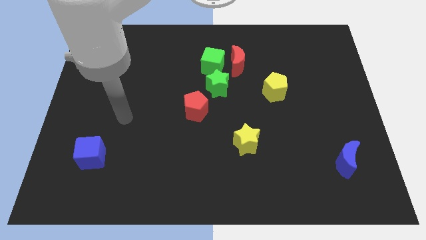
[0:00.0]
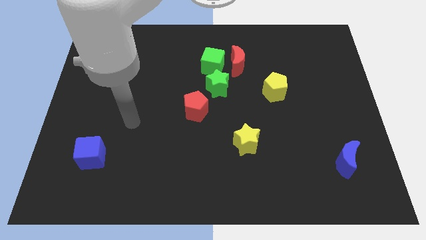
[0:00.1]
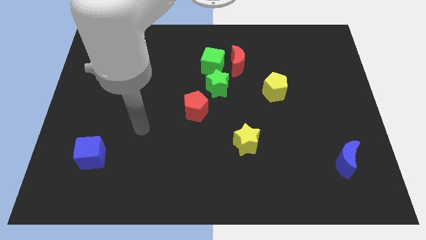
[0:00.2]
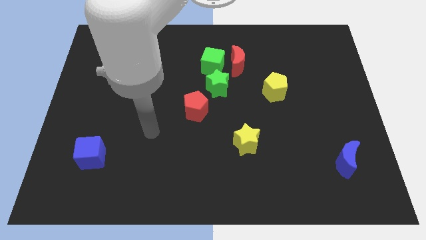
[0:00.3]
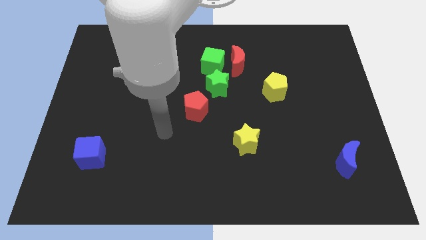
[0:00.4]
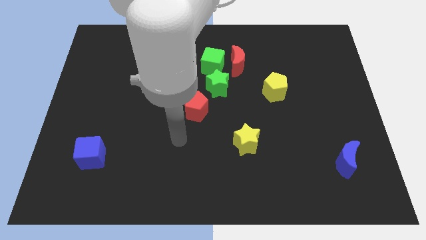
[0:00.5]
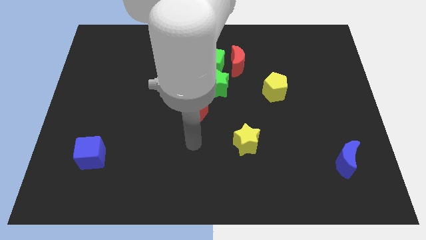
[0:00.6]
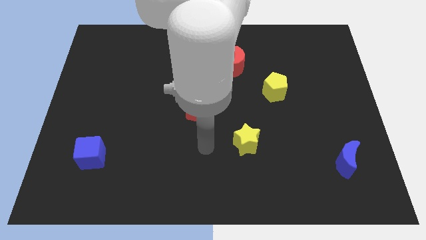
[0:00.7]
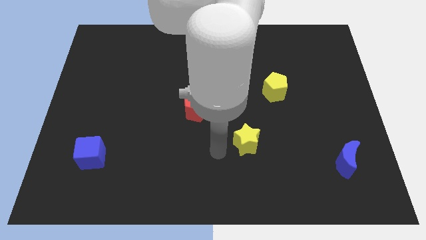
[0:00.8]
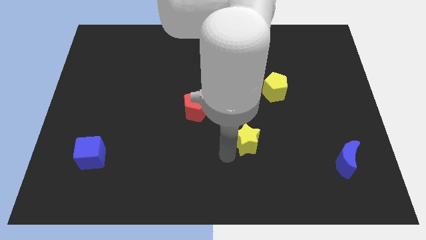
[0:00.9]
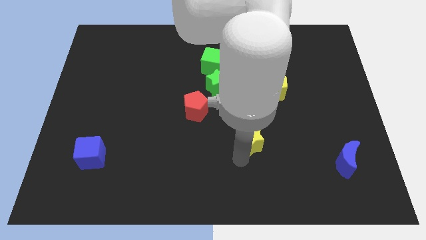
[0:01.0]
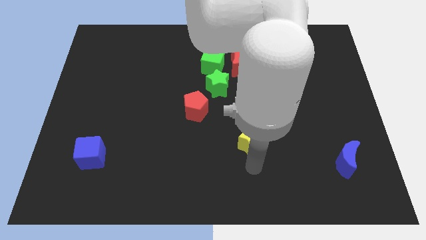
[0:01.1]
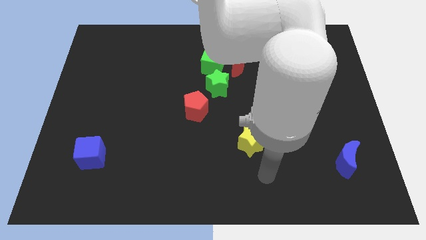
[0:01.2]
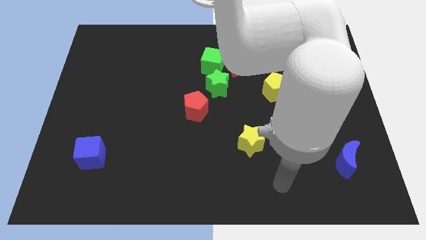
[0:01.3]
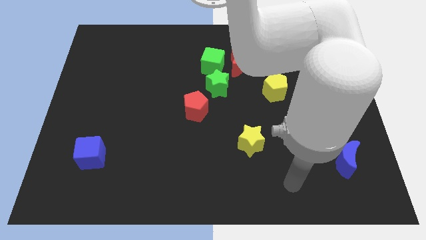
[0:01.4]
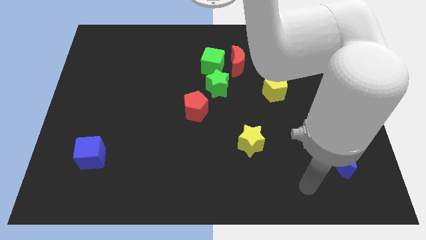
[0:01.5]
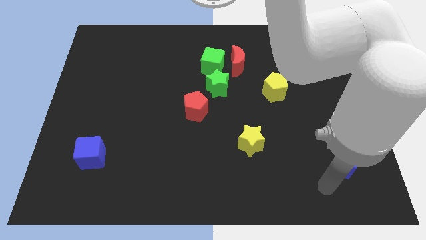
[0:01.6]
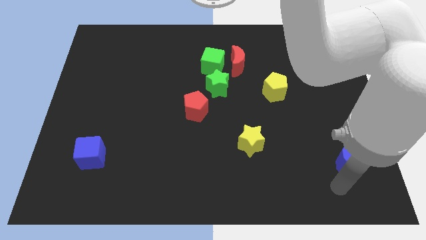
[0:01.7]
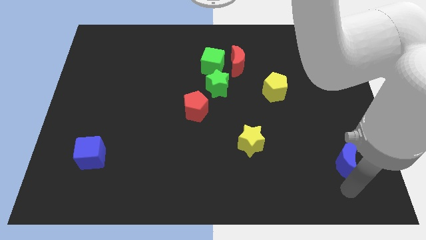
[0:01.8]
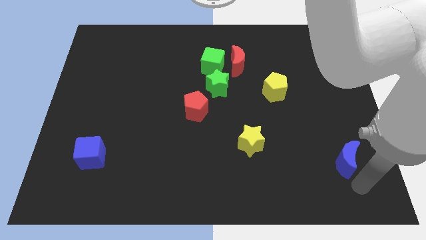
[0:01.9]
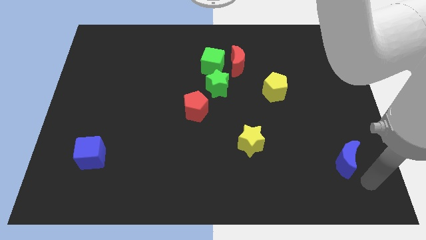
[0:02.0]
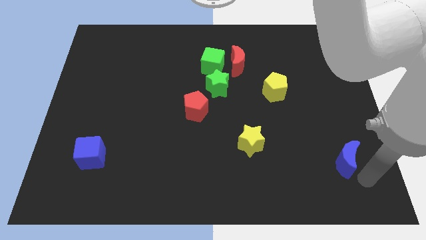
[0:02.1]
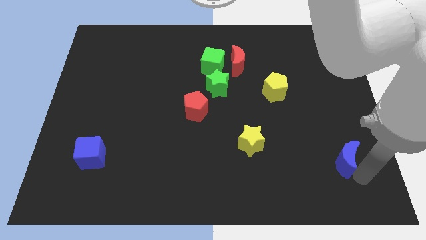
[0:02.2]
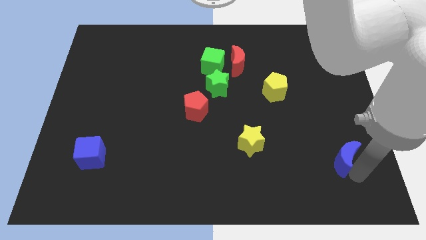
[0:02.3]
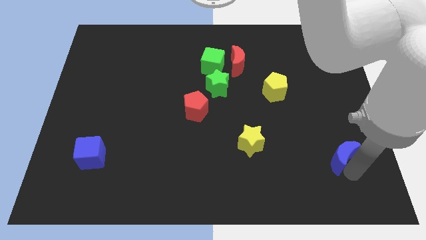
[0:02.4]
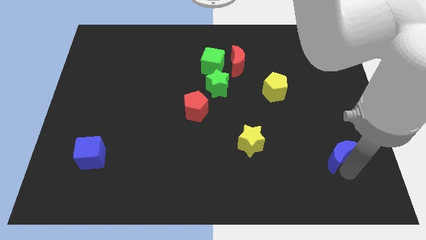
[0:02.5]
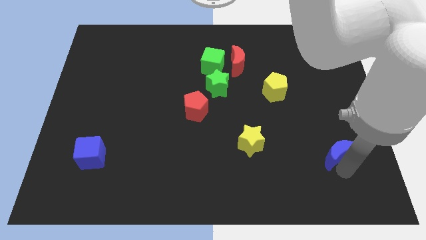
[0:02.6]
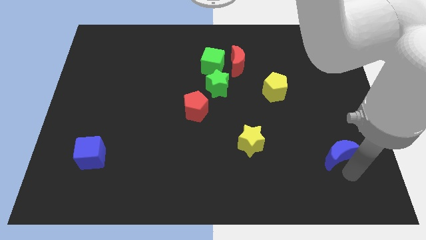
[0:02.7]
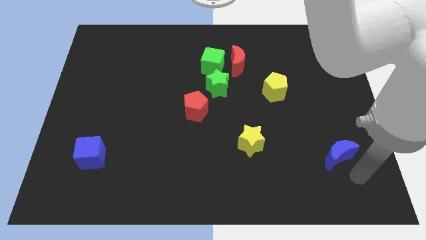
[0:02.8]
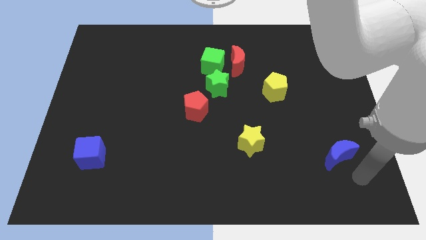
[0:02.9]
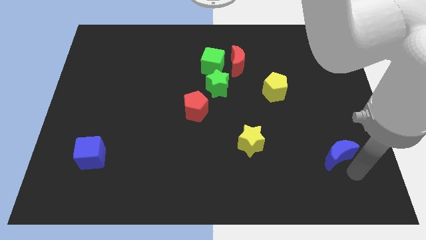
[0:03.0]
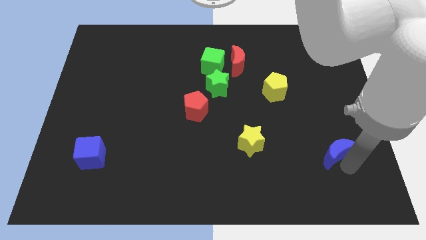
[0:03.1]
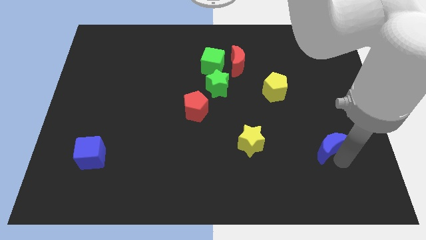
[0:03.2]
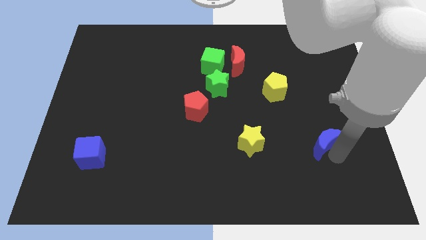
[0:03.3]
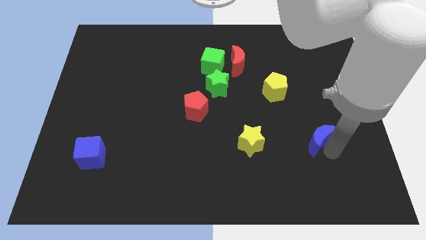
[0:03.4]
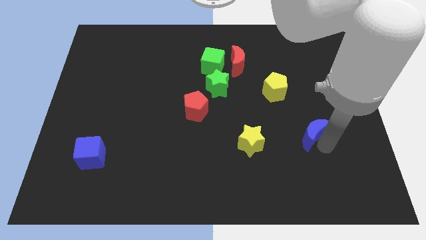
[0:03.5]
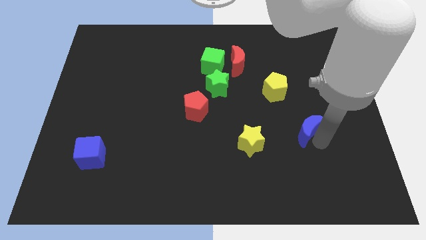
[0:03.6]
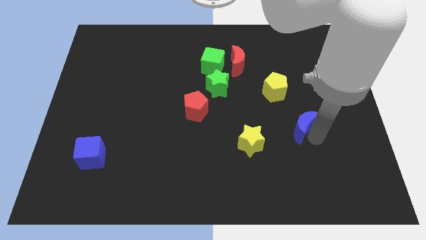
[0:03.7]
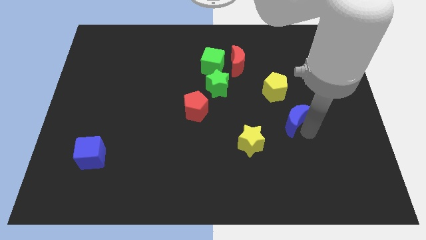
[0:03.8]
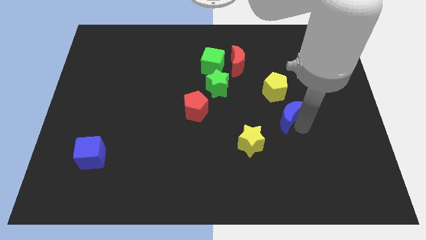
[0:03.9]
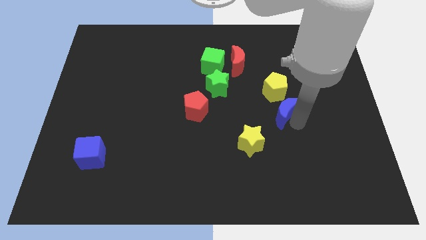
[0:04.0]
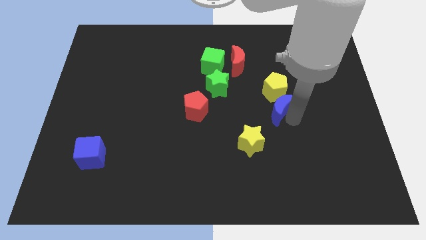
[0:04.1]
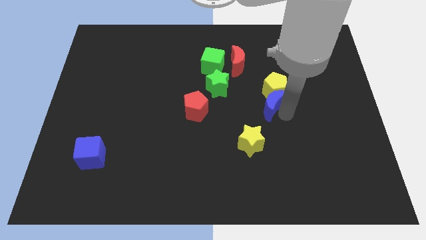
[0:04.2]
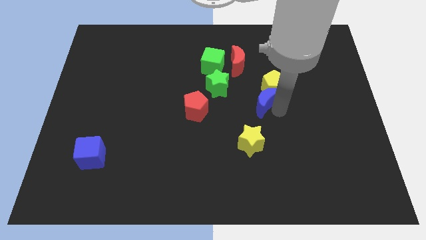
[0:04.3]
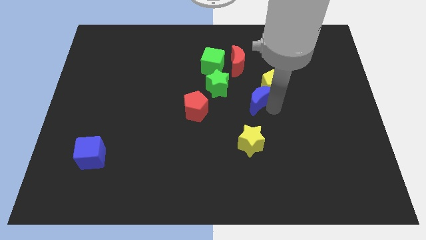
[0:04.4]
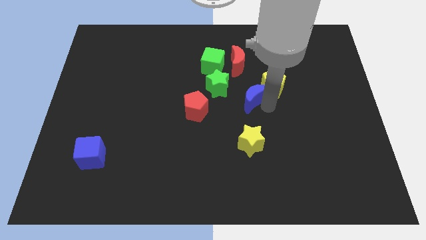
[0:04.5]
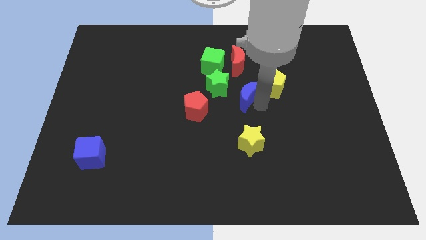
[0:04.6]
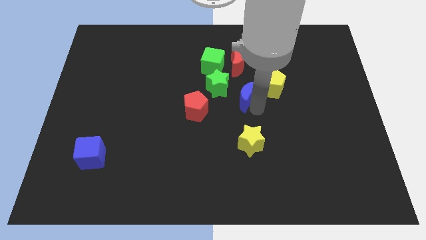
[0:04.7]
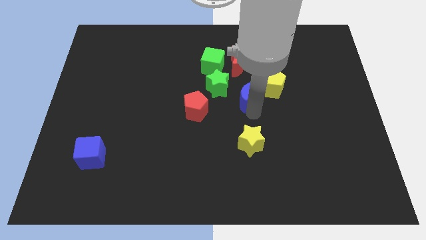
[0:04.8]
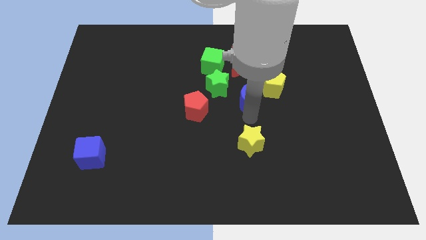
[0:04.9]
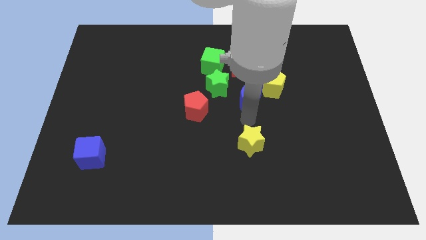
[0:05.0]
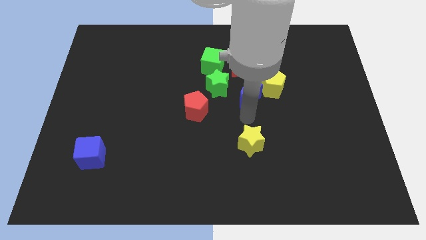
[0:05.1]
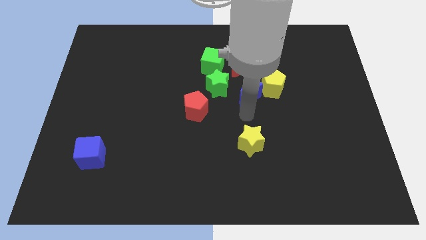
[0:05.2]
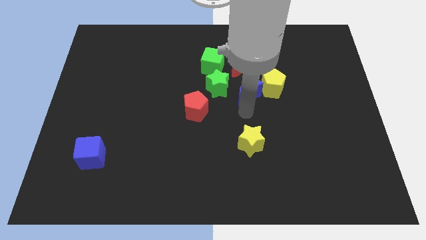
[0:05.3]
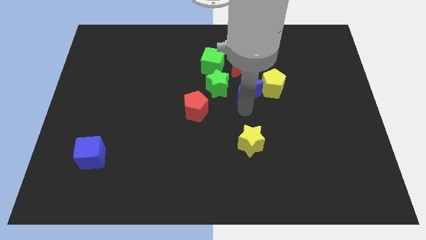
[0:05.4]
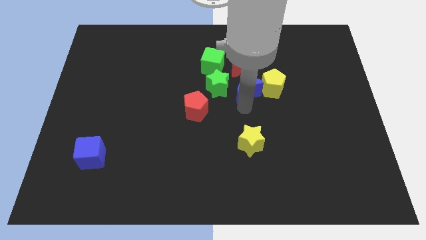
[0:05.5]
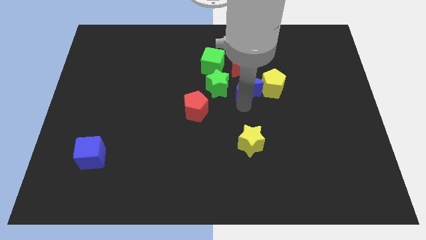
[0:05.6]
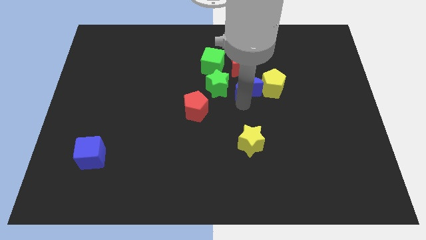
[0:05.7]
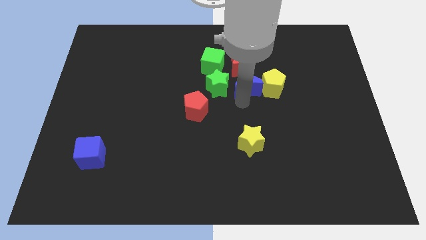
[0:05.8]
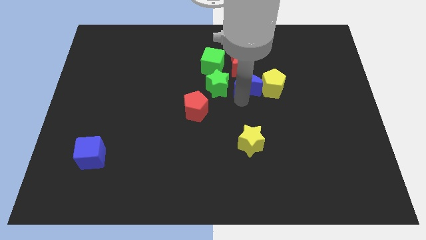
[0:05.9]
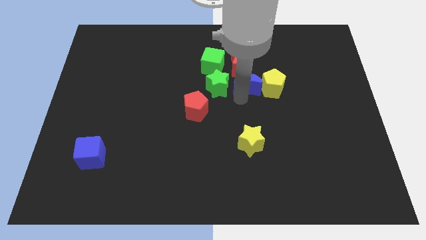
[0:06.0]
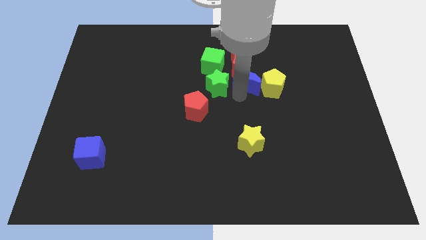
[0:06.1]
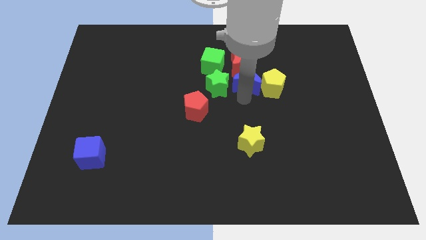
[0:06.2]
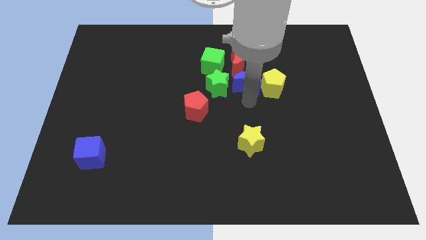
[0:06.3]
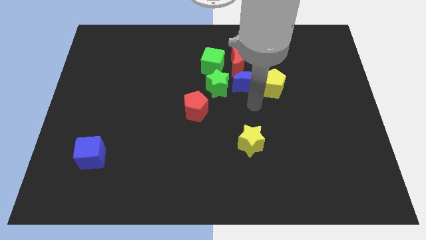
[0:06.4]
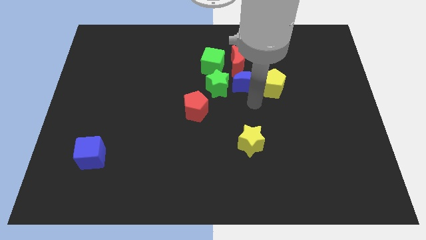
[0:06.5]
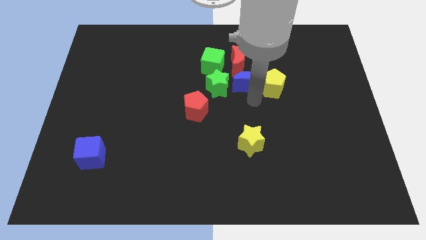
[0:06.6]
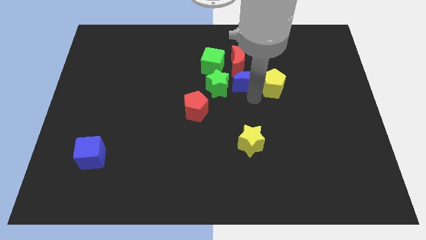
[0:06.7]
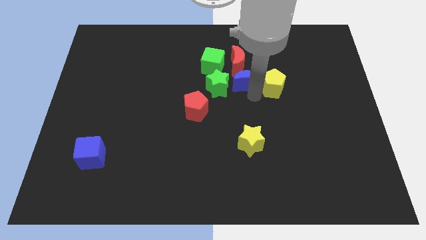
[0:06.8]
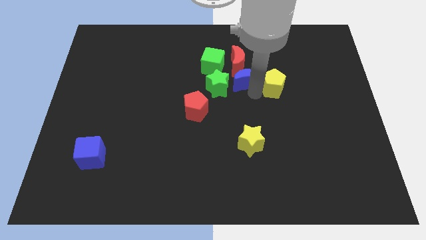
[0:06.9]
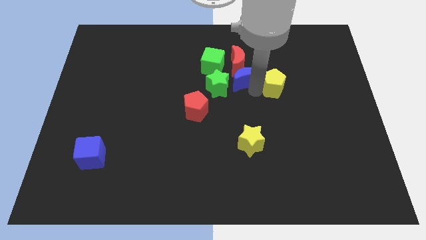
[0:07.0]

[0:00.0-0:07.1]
put the blue moon towards the red moon
